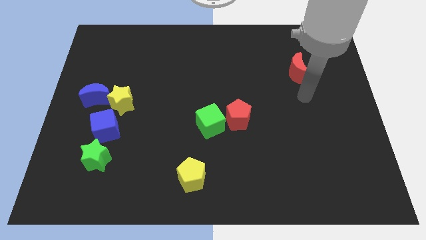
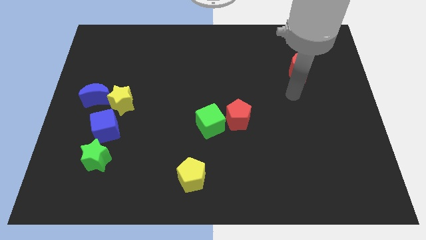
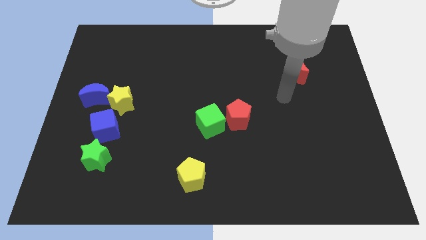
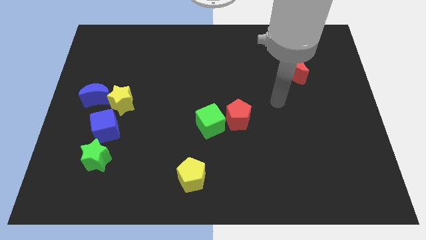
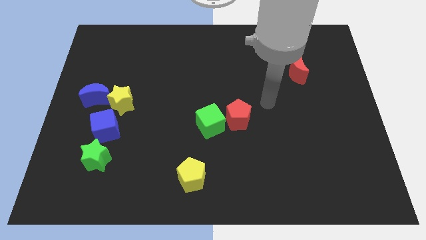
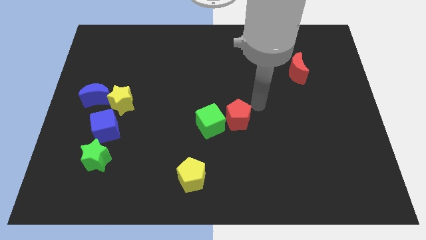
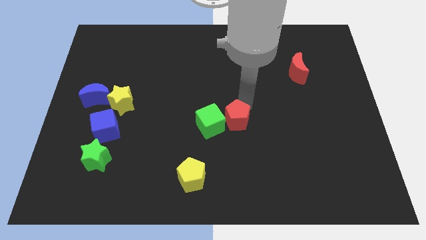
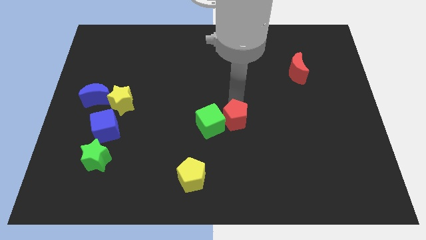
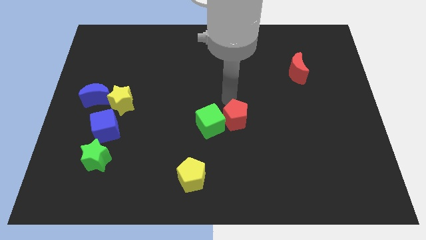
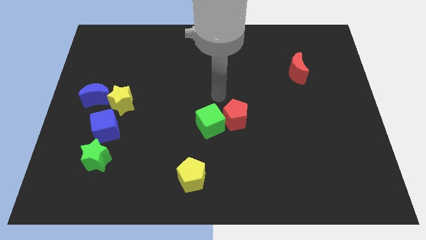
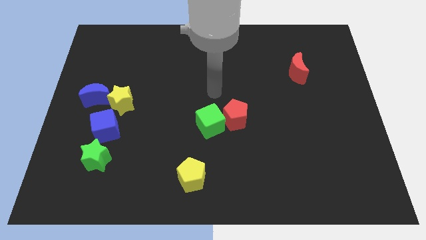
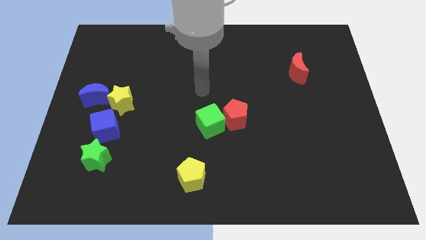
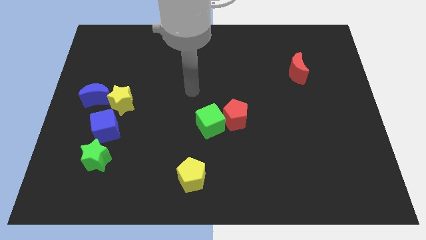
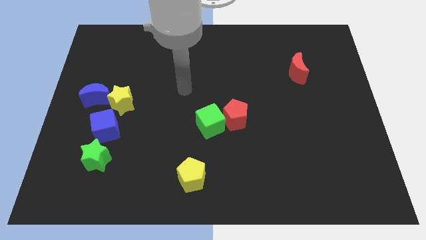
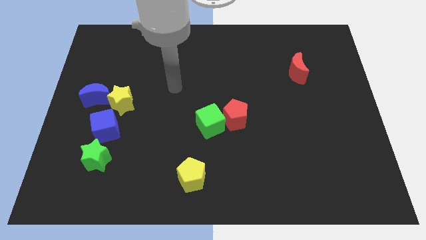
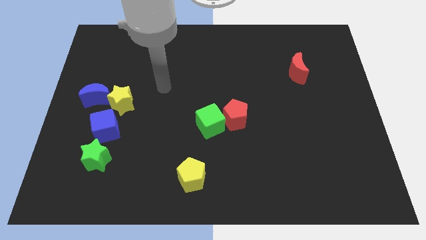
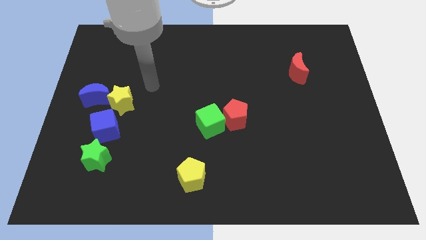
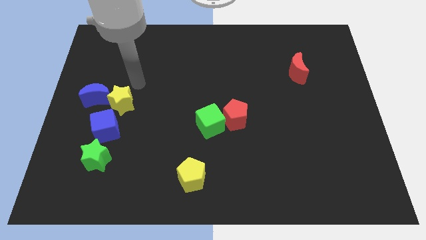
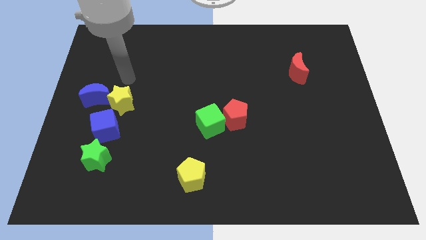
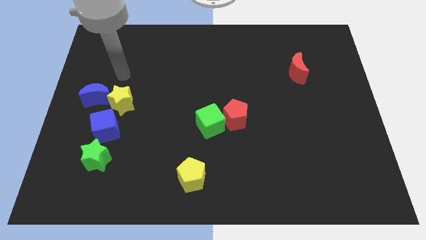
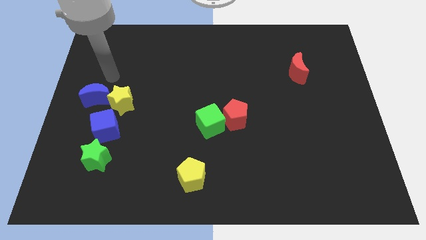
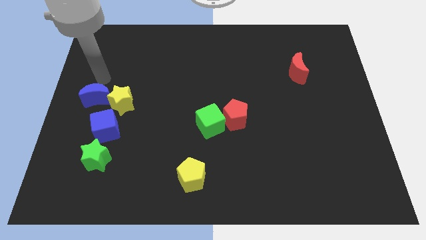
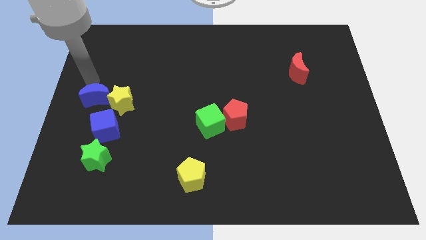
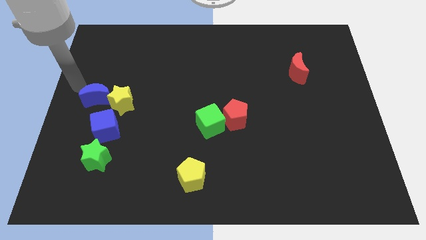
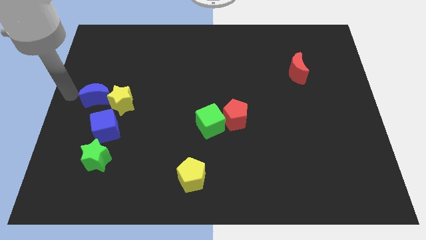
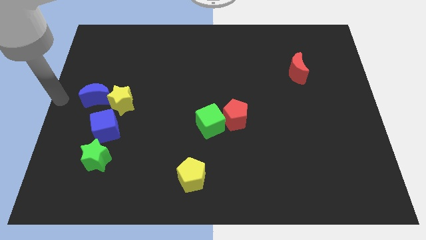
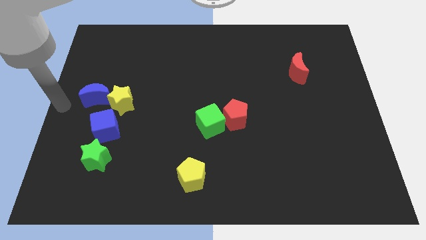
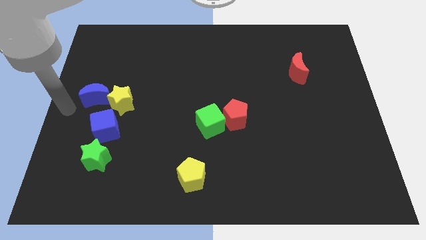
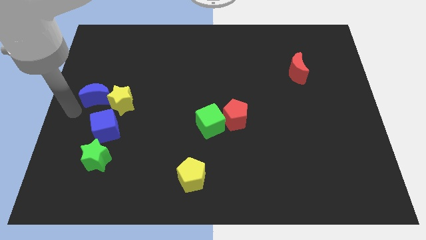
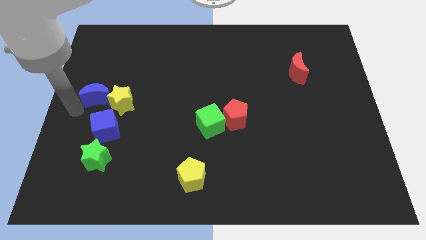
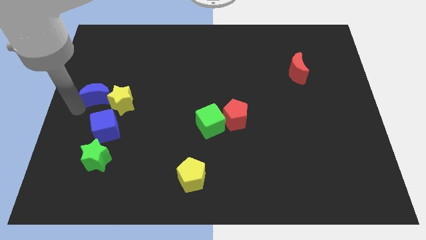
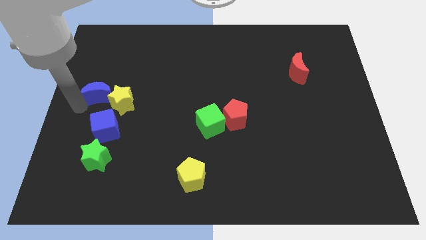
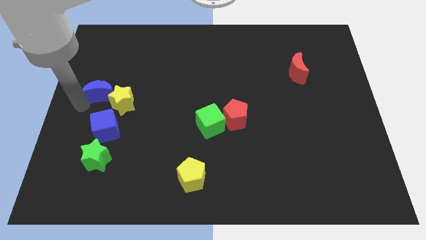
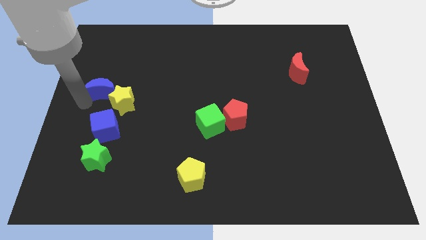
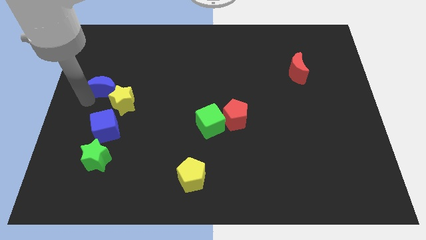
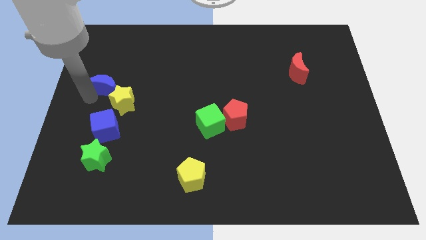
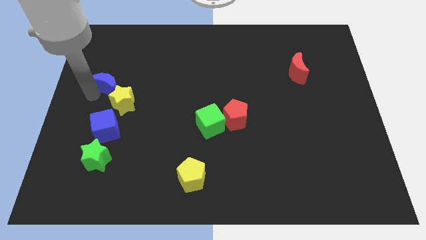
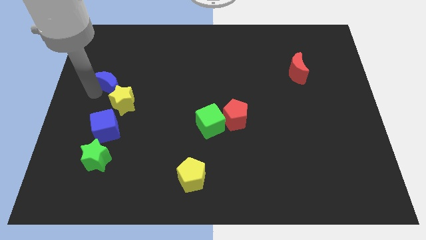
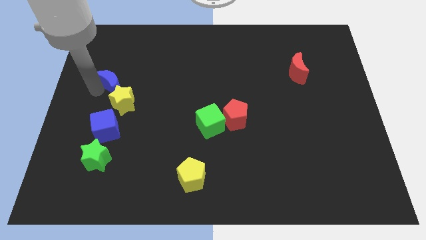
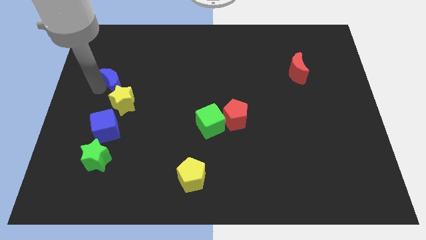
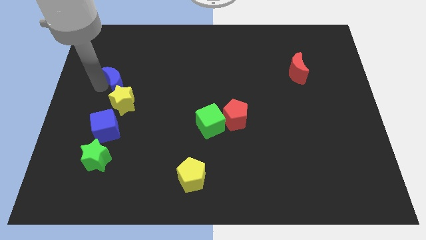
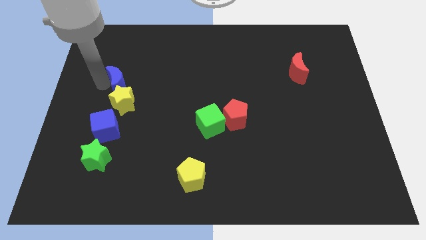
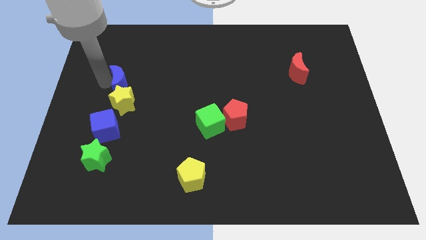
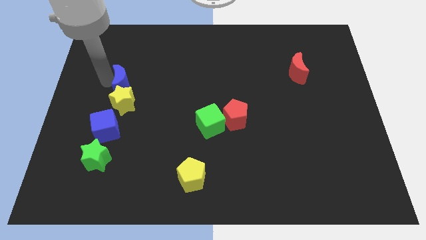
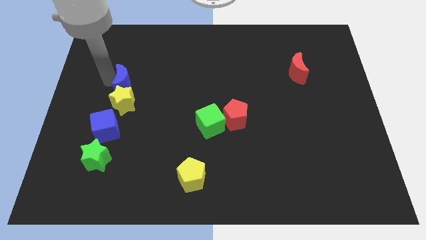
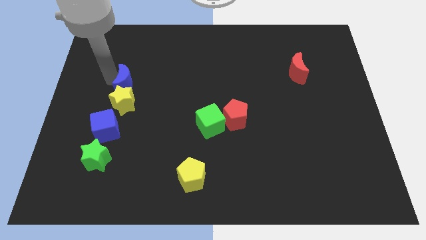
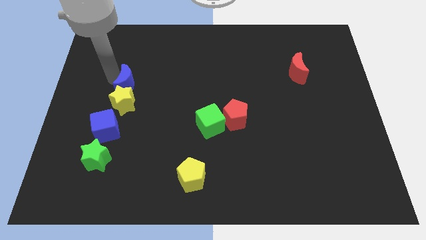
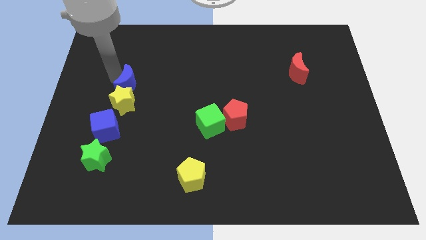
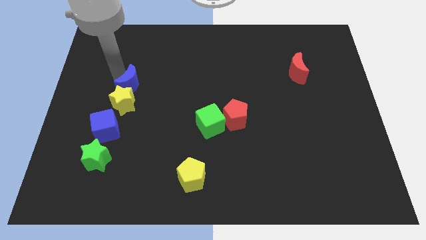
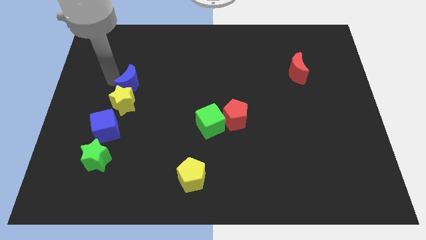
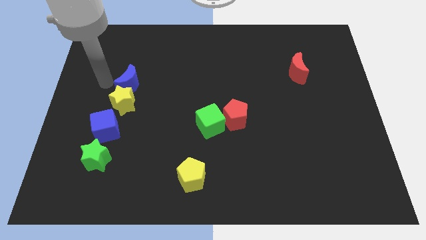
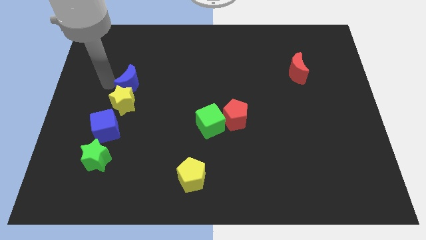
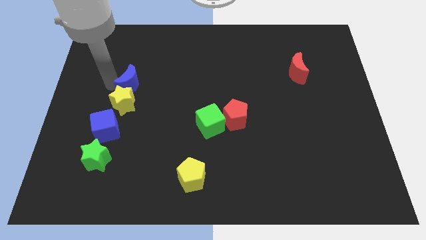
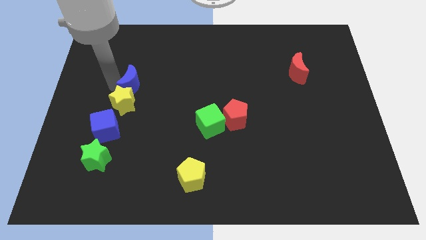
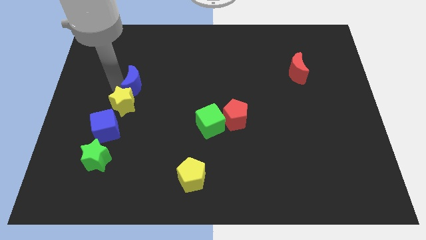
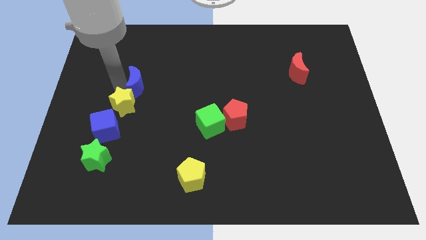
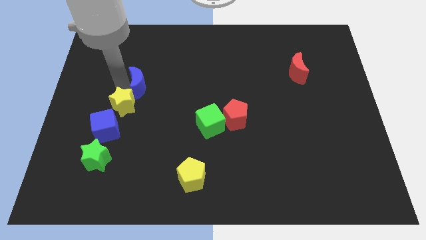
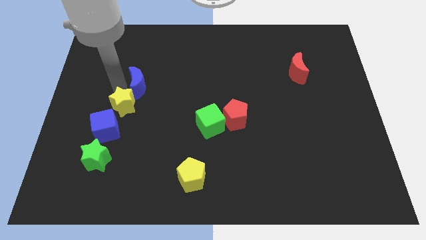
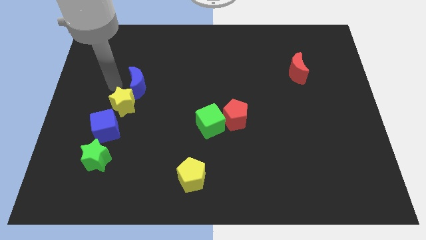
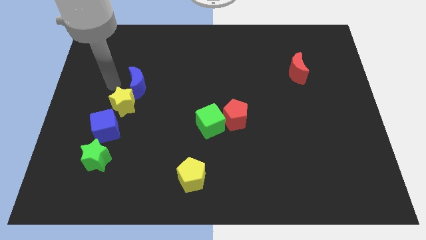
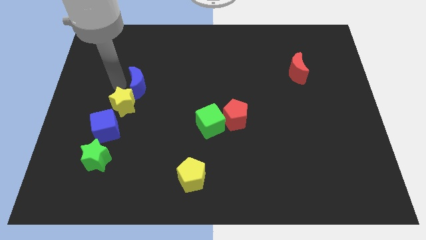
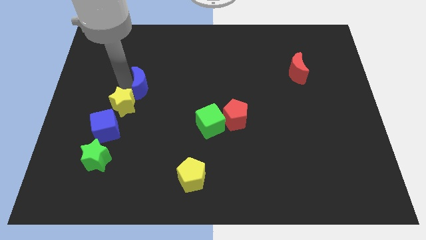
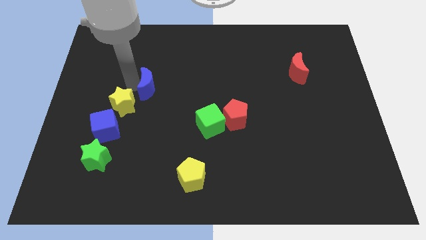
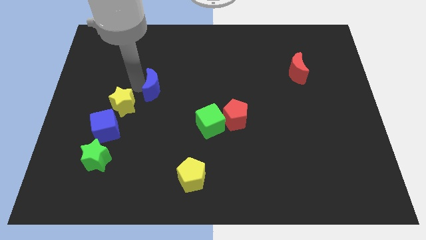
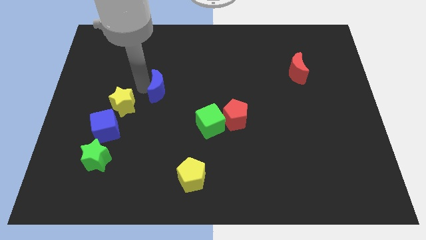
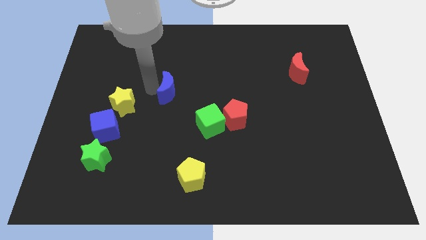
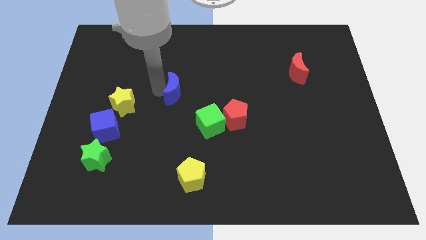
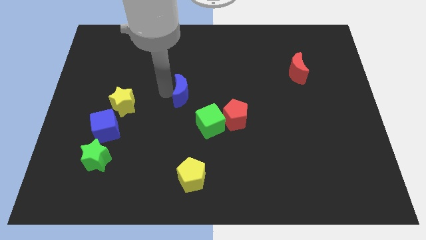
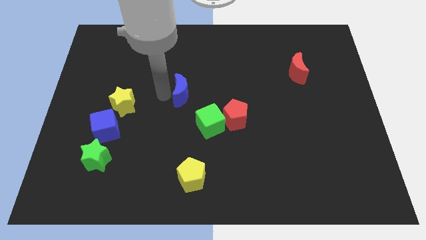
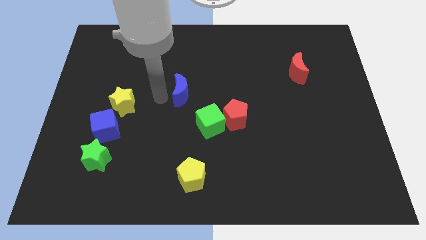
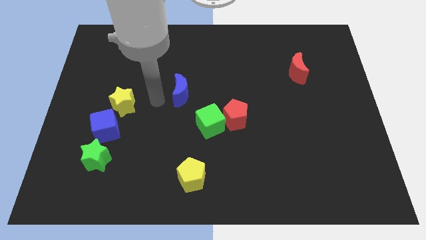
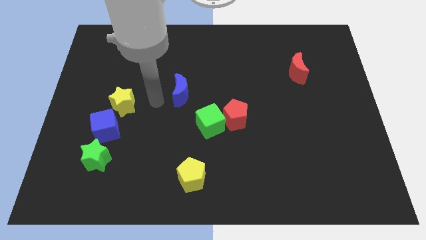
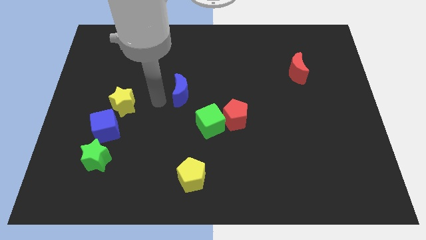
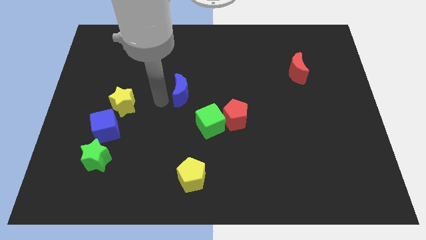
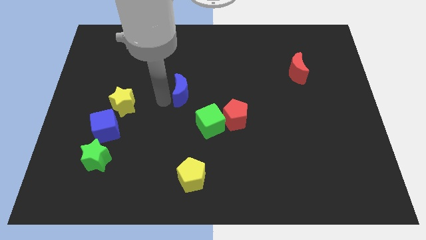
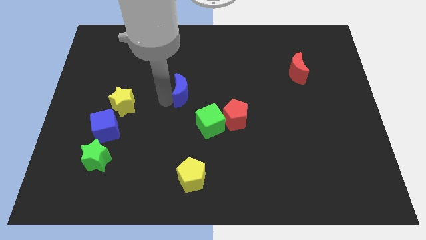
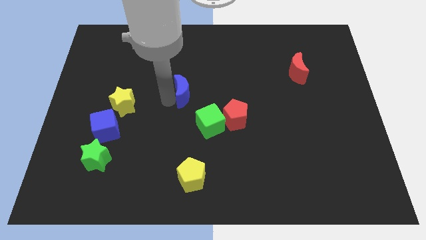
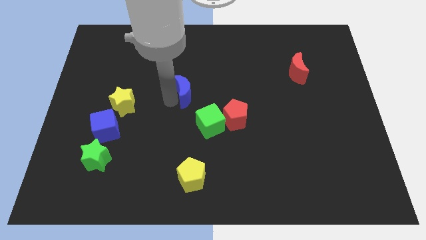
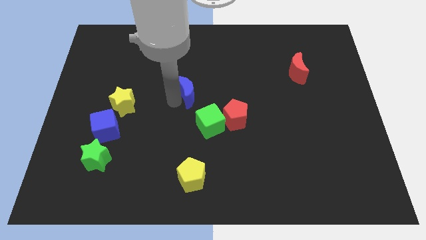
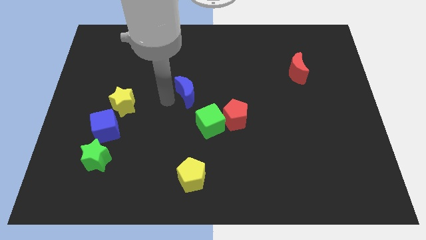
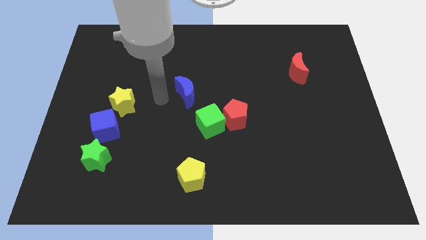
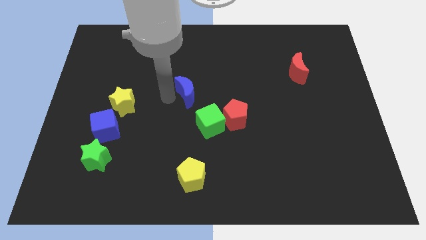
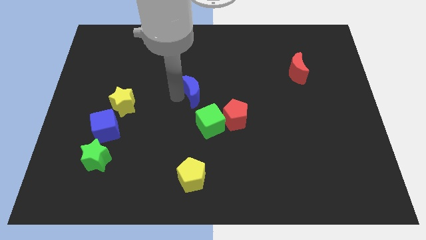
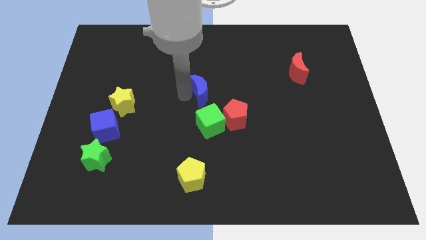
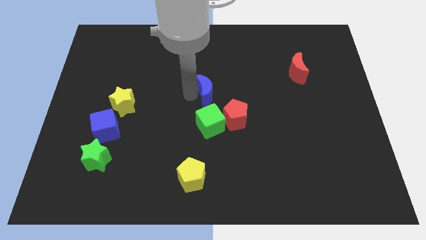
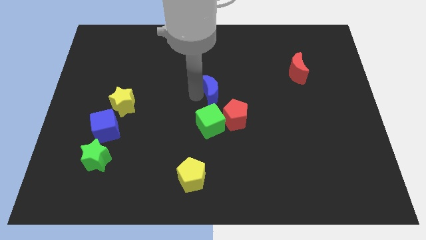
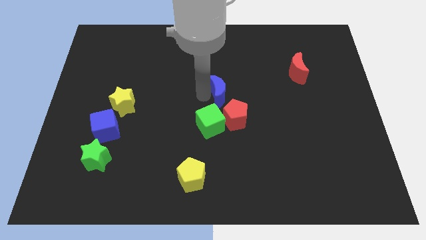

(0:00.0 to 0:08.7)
push the blue moon to the top of the red pentagon
